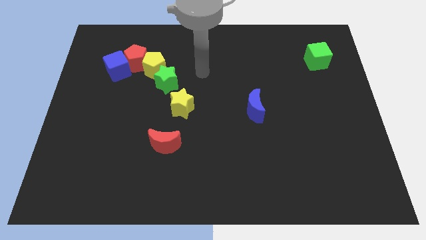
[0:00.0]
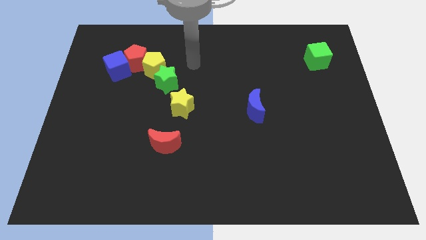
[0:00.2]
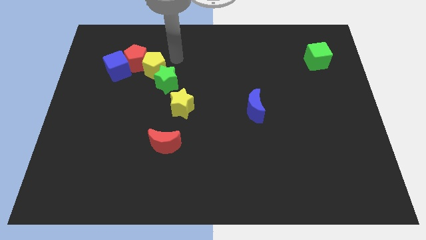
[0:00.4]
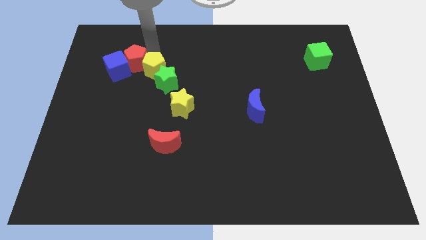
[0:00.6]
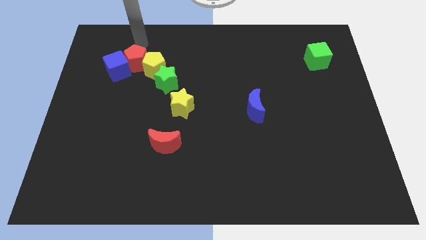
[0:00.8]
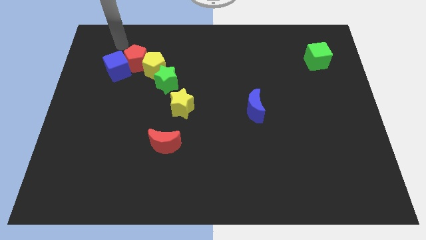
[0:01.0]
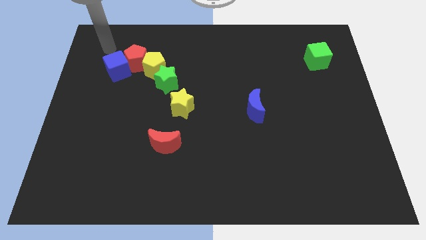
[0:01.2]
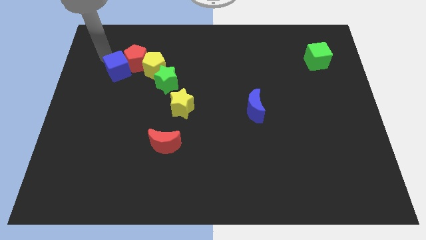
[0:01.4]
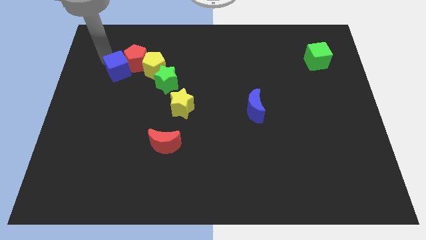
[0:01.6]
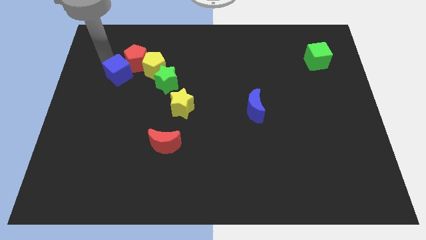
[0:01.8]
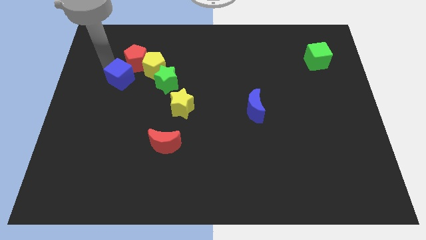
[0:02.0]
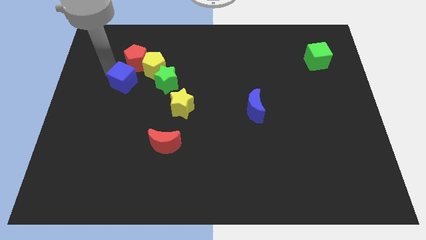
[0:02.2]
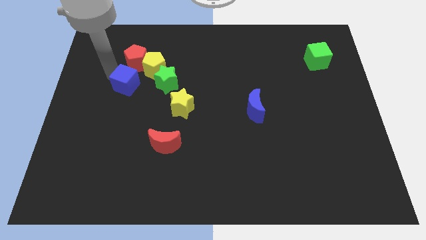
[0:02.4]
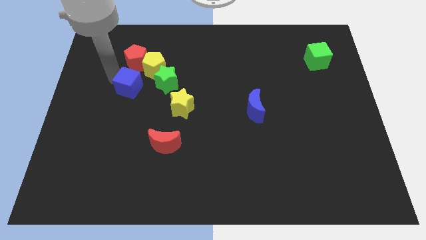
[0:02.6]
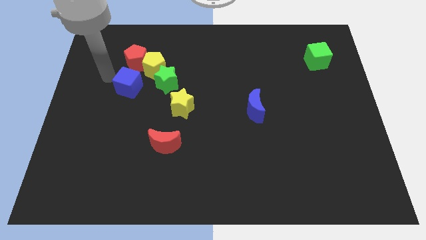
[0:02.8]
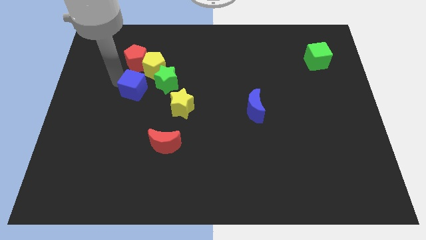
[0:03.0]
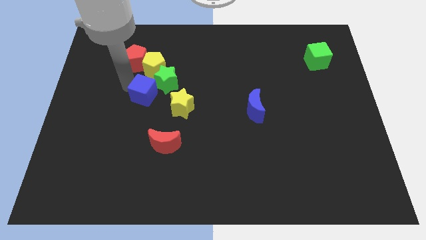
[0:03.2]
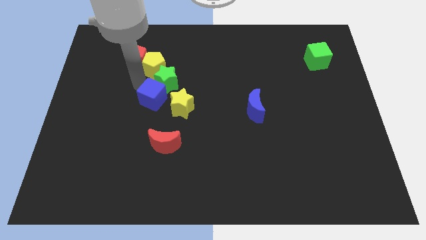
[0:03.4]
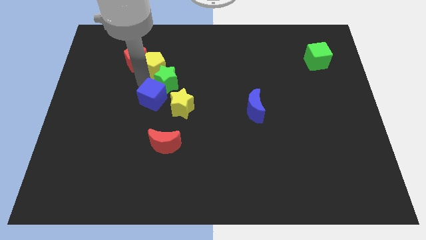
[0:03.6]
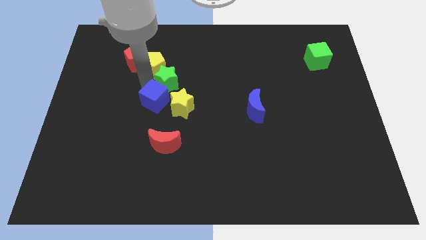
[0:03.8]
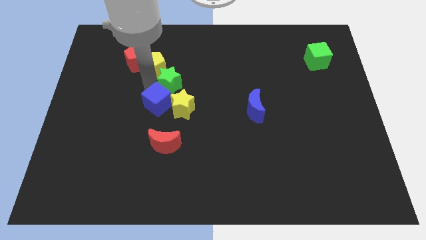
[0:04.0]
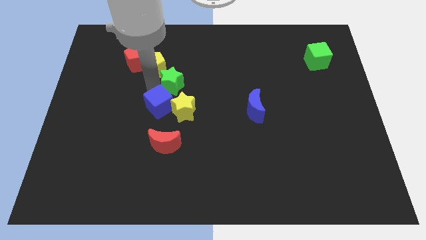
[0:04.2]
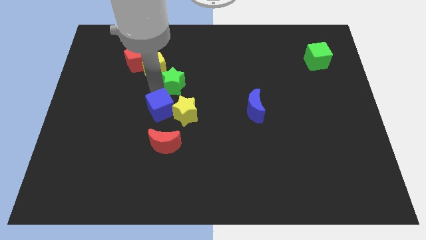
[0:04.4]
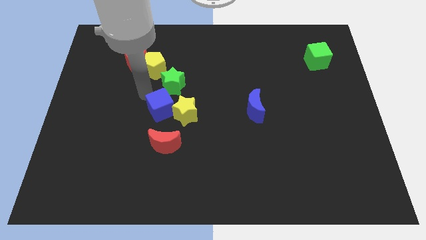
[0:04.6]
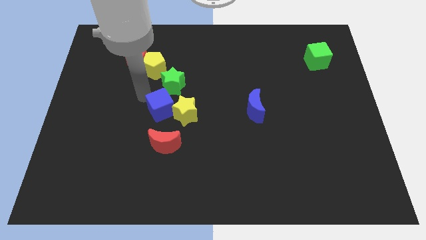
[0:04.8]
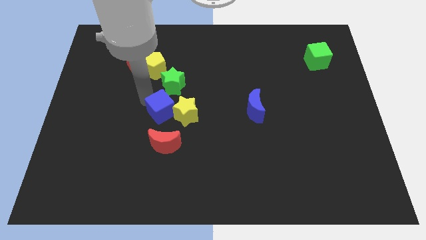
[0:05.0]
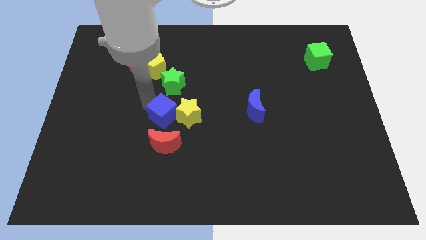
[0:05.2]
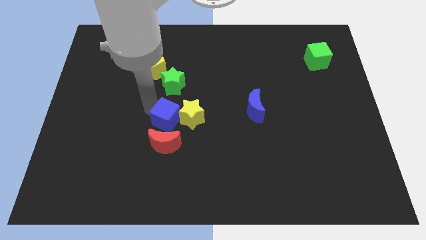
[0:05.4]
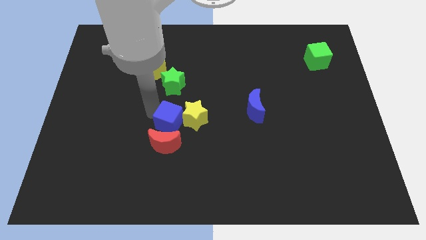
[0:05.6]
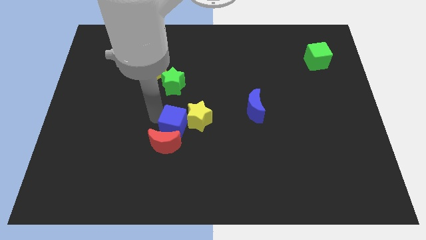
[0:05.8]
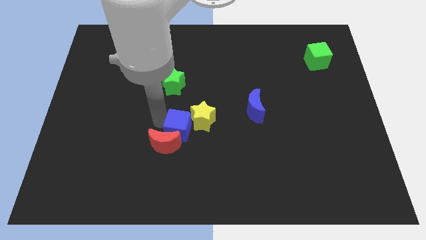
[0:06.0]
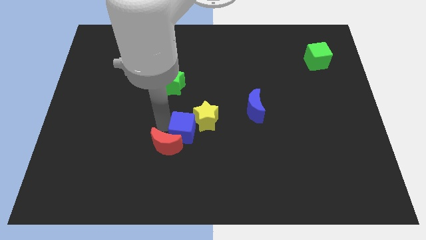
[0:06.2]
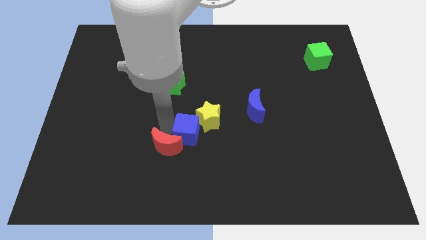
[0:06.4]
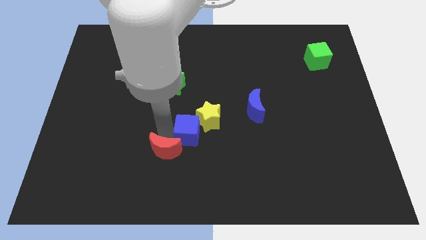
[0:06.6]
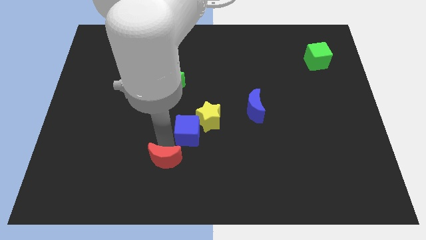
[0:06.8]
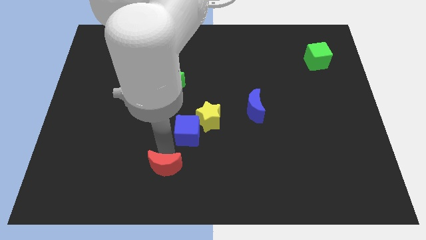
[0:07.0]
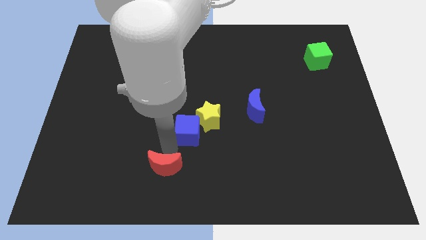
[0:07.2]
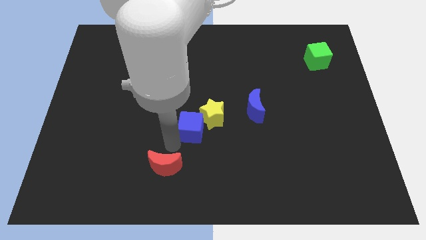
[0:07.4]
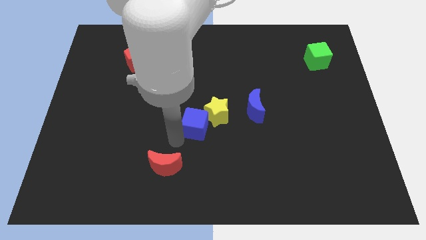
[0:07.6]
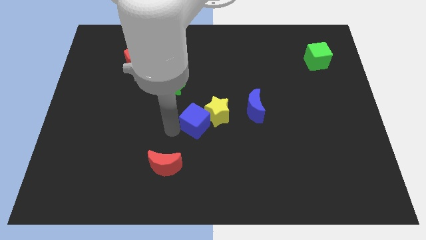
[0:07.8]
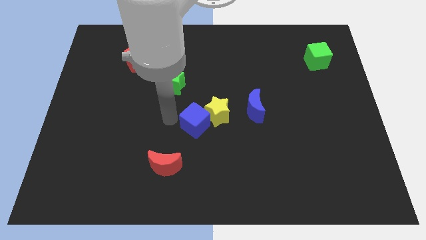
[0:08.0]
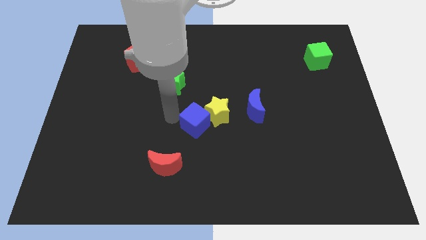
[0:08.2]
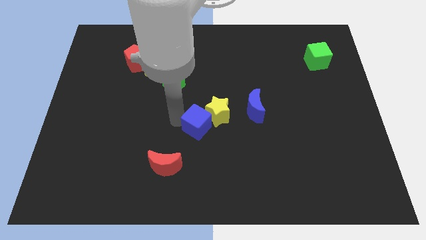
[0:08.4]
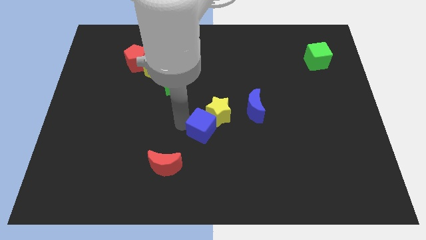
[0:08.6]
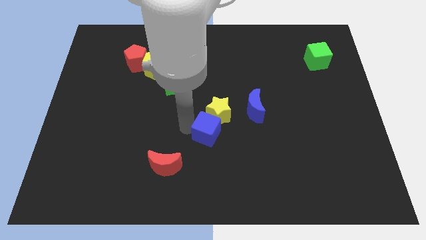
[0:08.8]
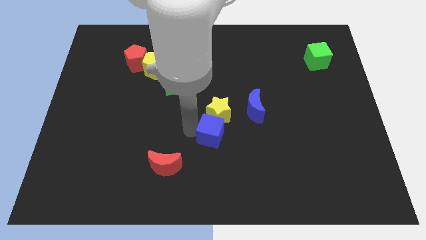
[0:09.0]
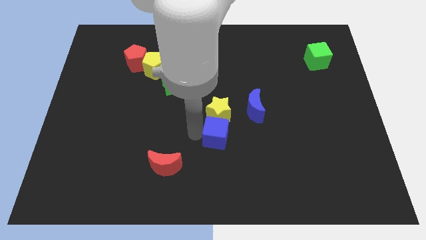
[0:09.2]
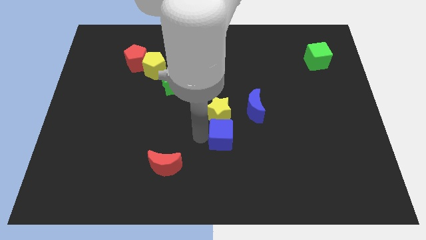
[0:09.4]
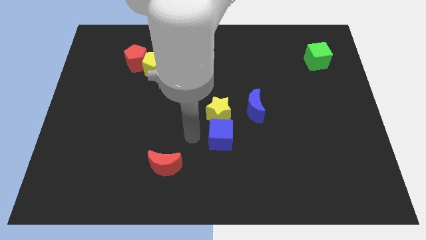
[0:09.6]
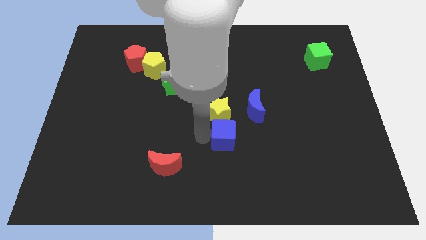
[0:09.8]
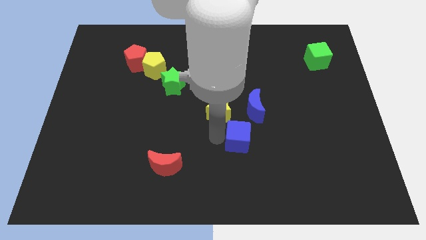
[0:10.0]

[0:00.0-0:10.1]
push the blue cube to the bottom of the blue moon

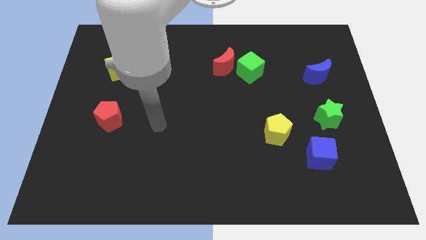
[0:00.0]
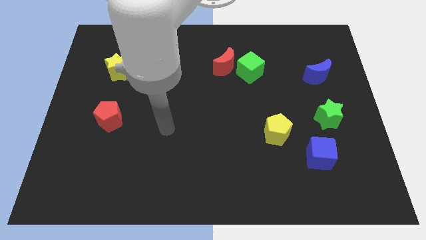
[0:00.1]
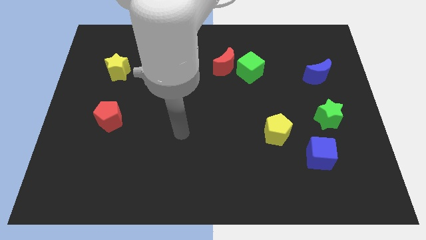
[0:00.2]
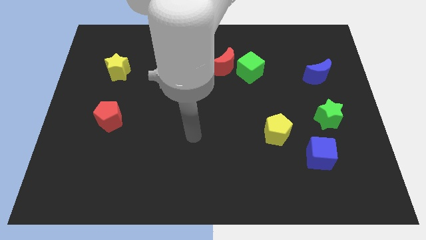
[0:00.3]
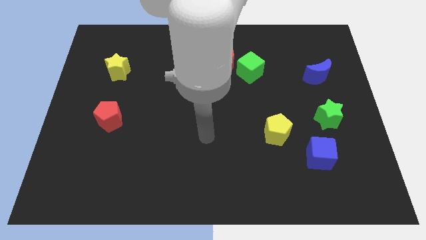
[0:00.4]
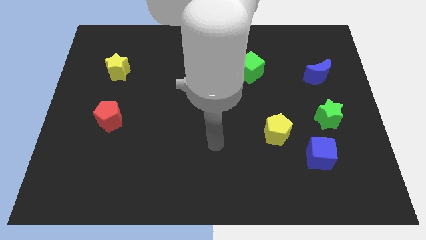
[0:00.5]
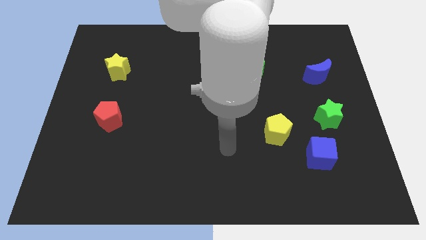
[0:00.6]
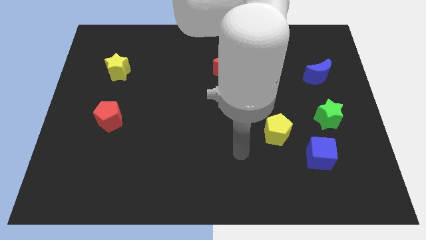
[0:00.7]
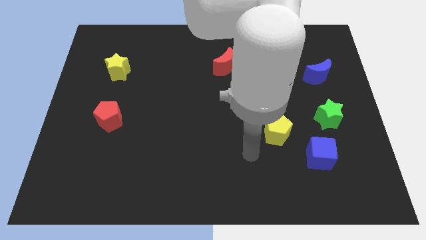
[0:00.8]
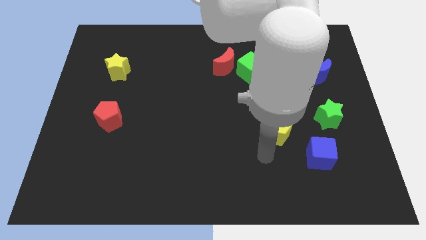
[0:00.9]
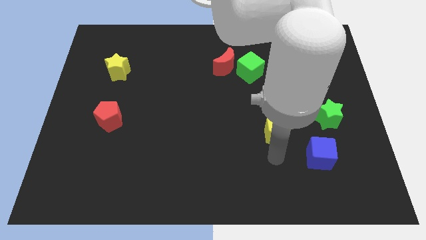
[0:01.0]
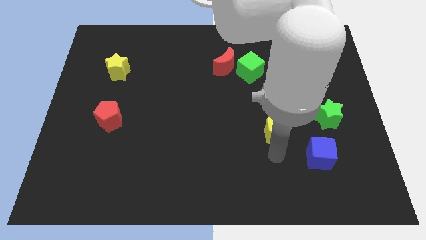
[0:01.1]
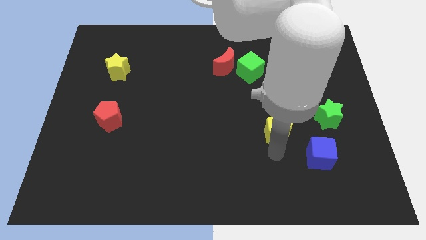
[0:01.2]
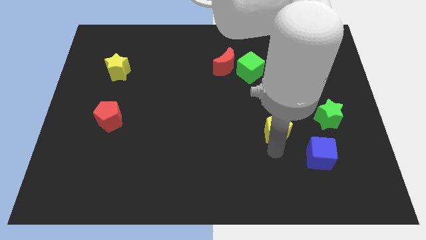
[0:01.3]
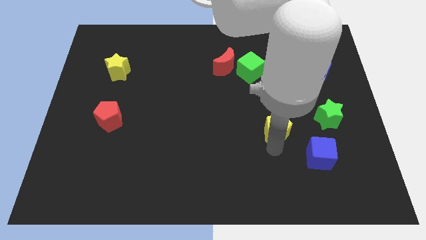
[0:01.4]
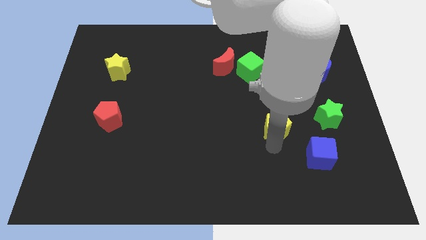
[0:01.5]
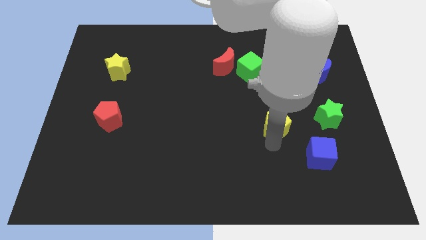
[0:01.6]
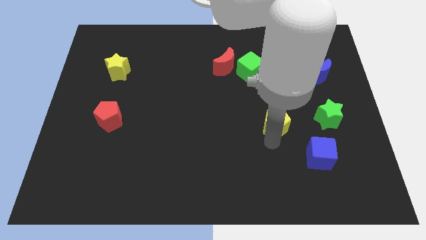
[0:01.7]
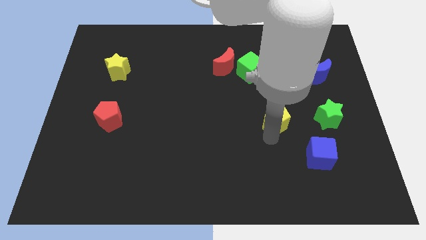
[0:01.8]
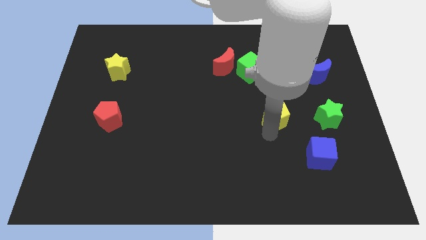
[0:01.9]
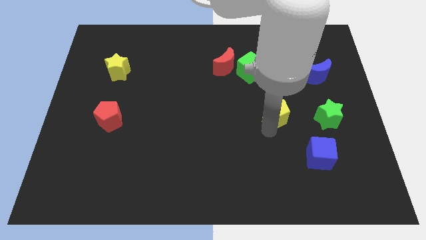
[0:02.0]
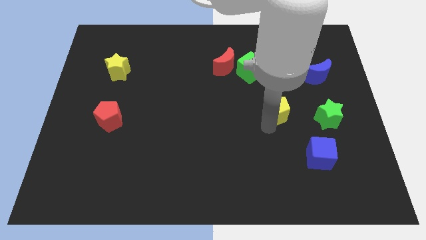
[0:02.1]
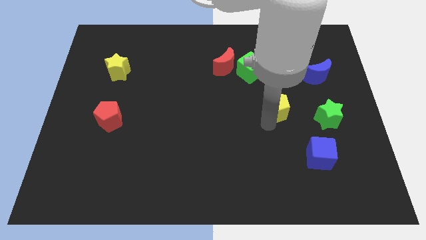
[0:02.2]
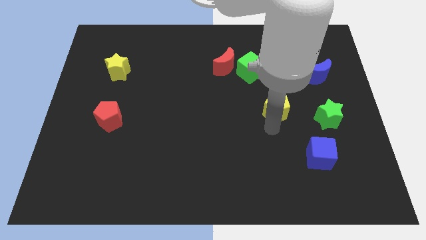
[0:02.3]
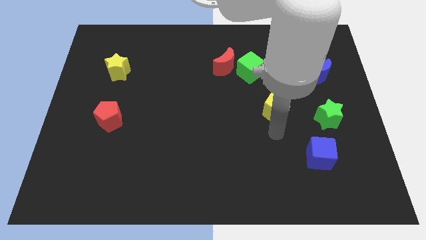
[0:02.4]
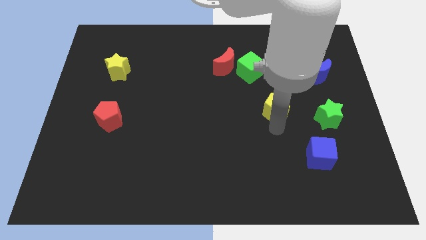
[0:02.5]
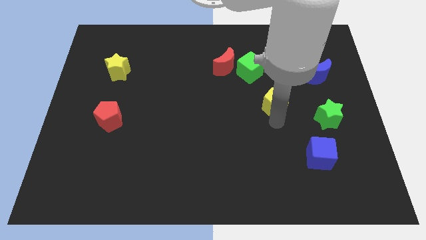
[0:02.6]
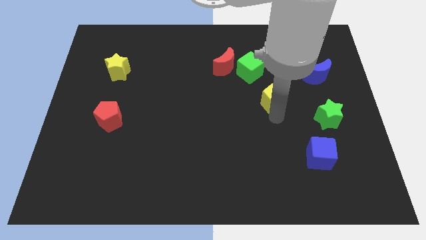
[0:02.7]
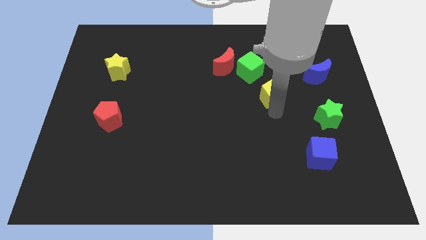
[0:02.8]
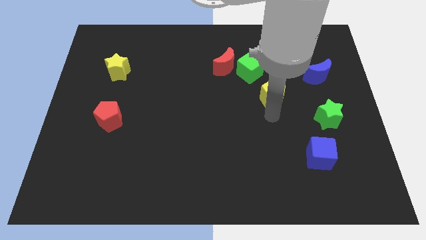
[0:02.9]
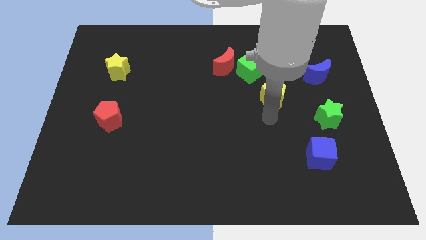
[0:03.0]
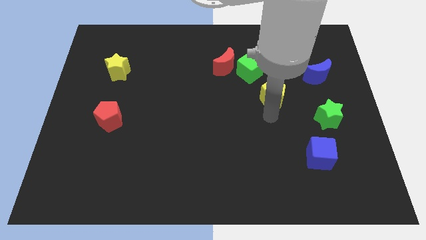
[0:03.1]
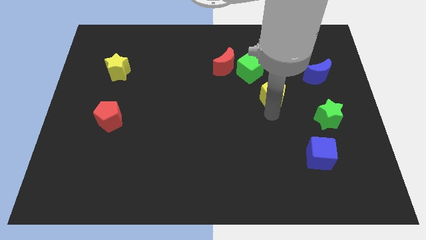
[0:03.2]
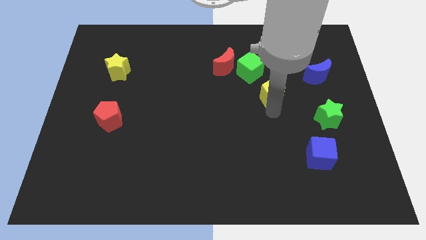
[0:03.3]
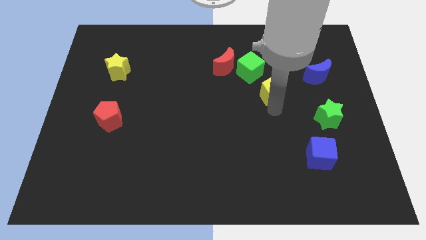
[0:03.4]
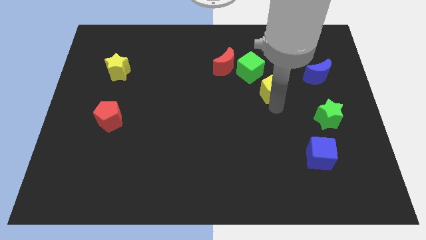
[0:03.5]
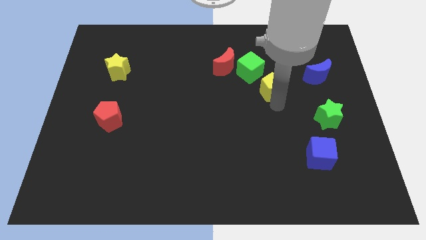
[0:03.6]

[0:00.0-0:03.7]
put the yellow pentagon to the left side of the blue moon
